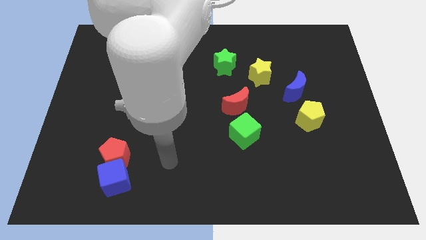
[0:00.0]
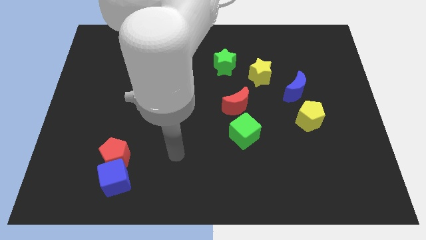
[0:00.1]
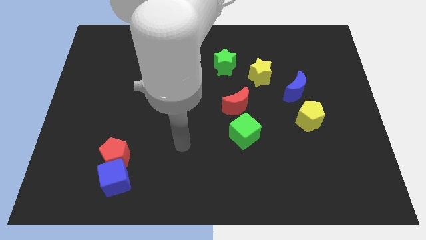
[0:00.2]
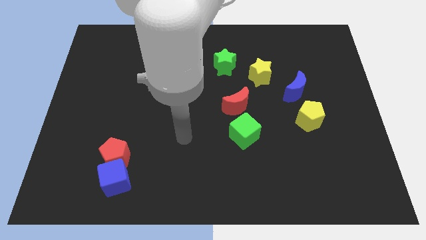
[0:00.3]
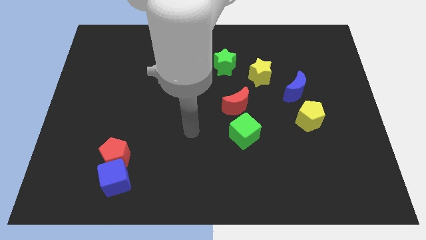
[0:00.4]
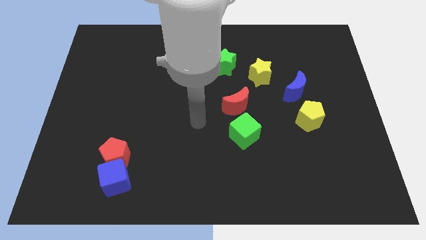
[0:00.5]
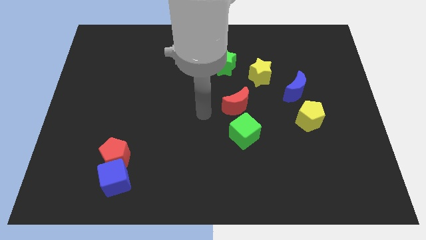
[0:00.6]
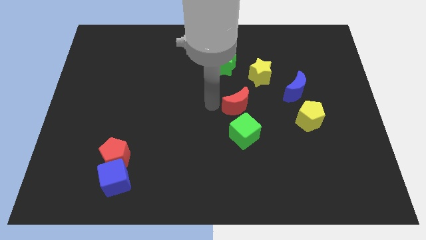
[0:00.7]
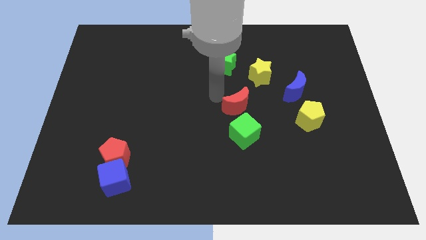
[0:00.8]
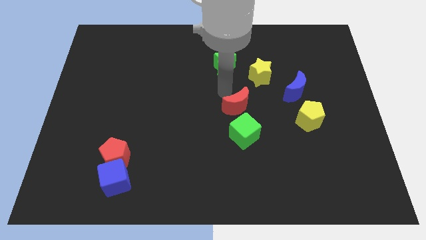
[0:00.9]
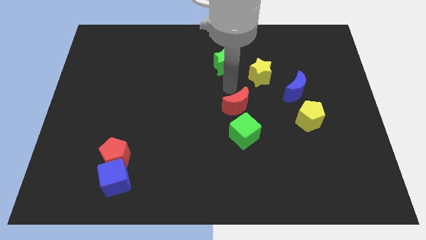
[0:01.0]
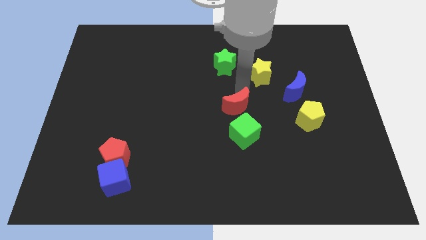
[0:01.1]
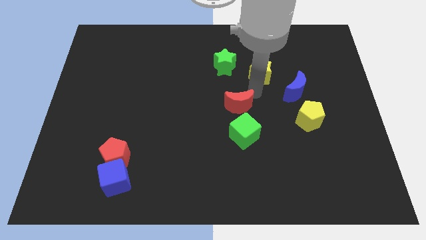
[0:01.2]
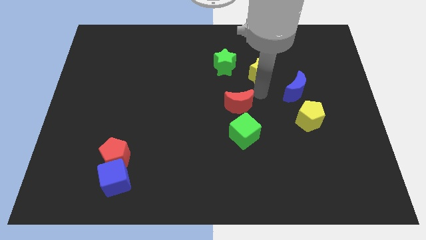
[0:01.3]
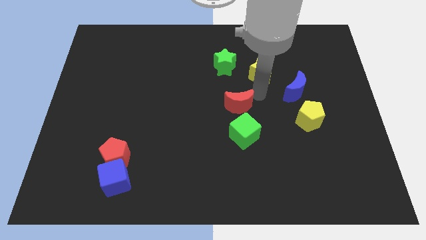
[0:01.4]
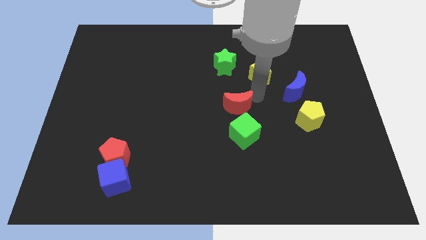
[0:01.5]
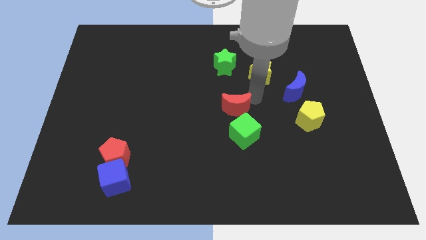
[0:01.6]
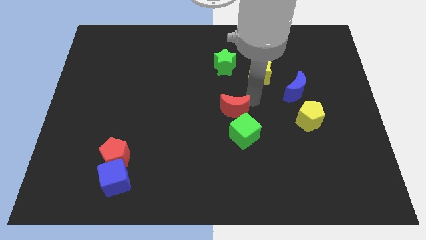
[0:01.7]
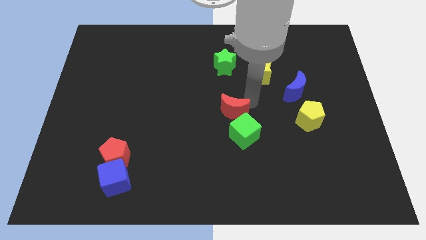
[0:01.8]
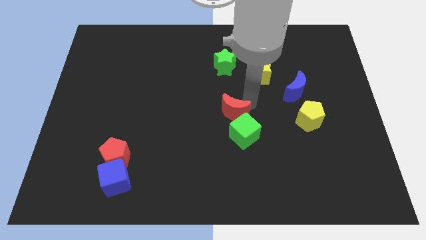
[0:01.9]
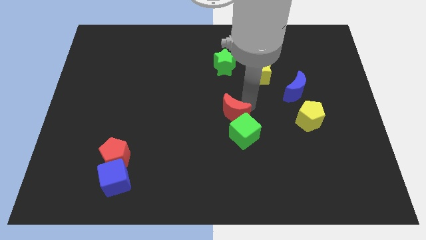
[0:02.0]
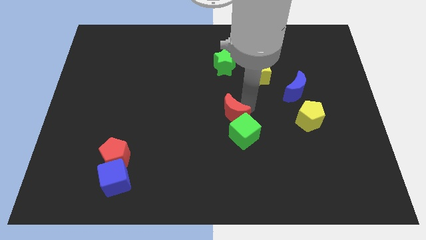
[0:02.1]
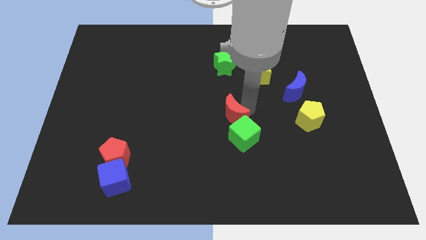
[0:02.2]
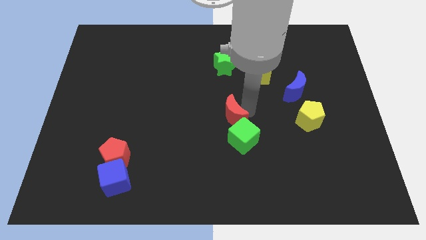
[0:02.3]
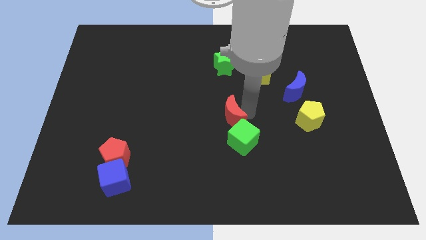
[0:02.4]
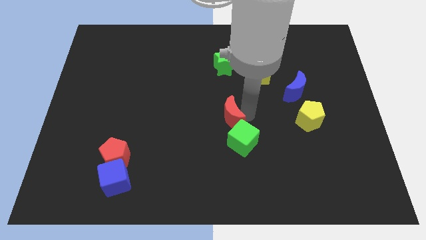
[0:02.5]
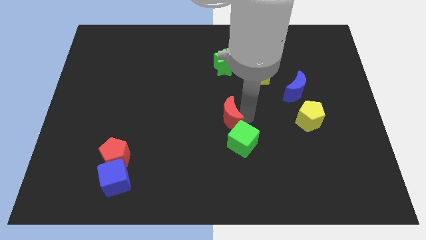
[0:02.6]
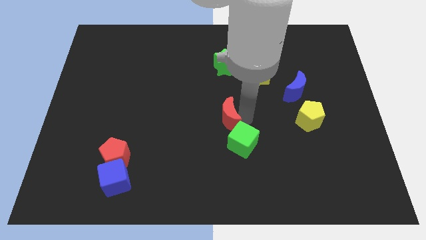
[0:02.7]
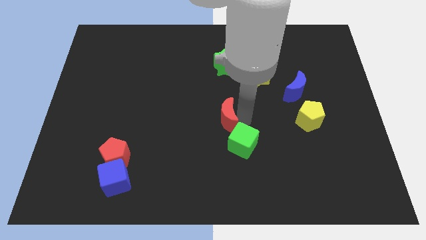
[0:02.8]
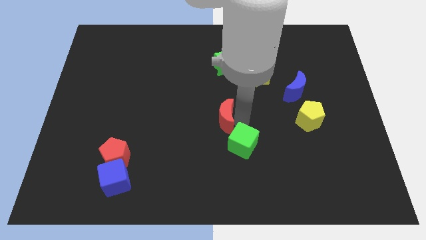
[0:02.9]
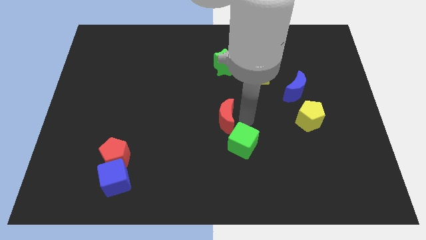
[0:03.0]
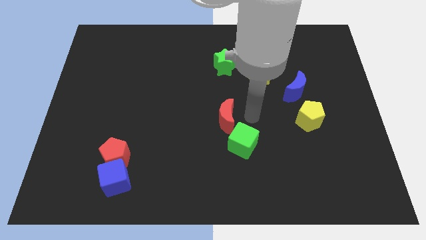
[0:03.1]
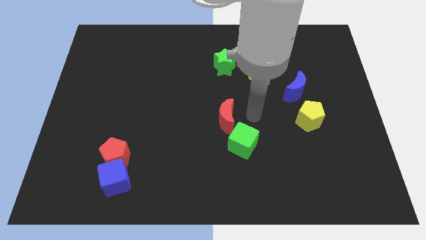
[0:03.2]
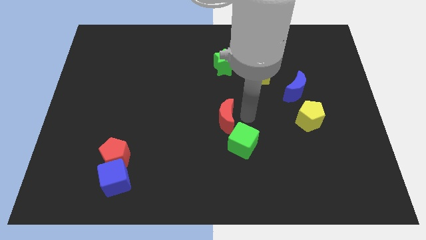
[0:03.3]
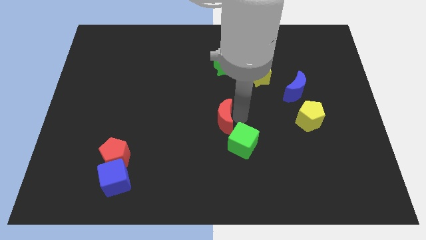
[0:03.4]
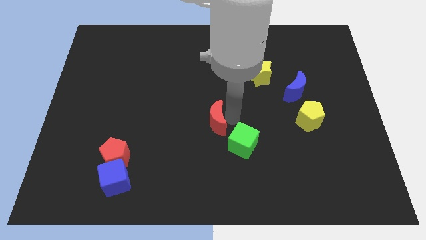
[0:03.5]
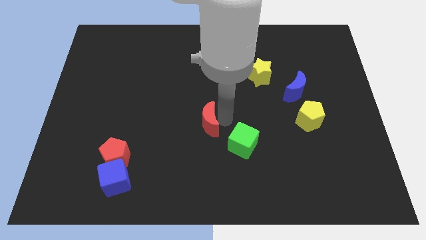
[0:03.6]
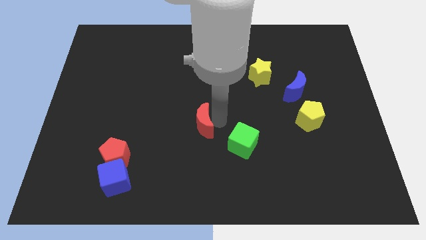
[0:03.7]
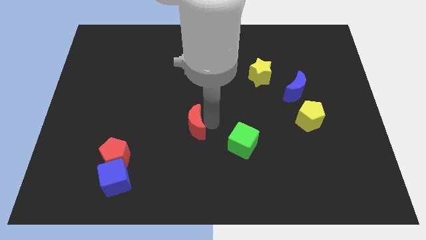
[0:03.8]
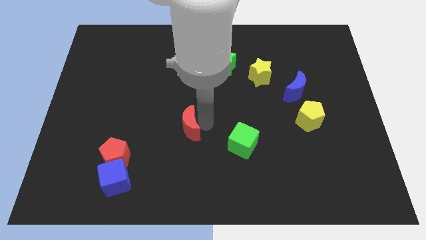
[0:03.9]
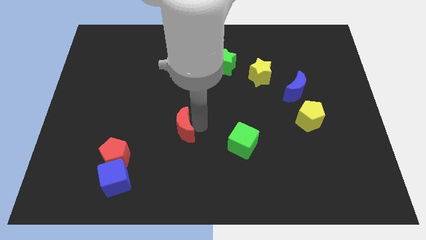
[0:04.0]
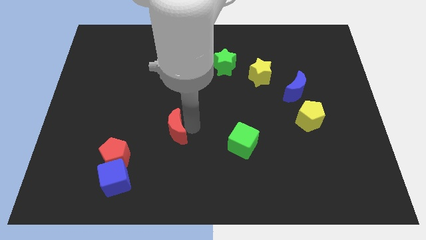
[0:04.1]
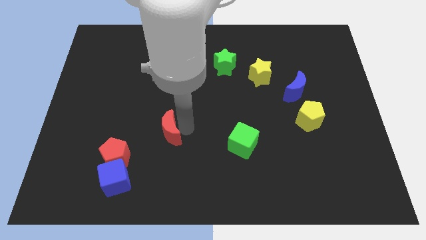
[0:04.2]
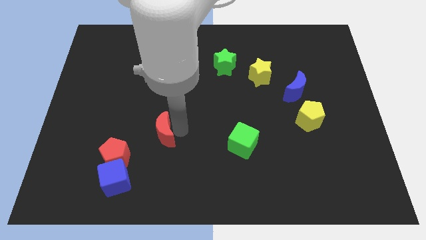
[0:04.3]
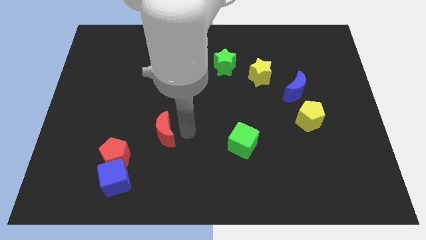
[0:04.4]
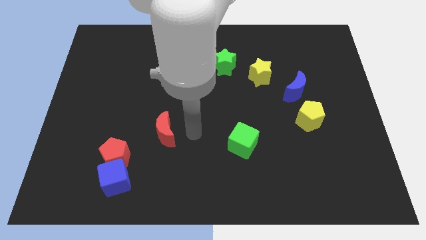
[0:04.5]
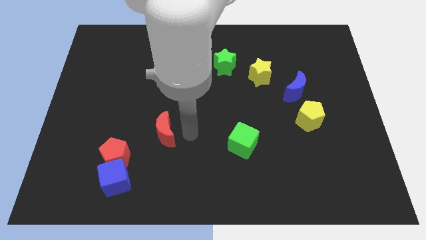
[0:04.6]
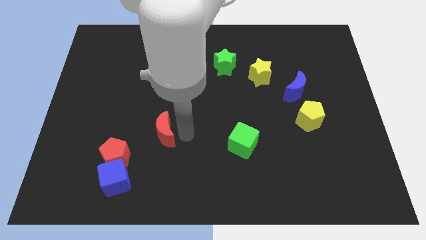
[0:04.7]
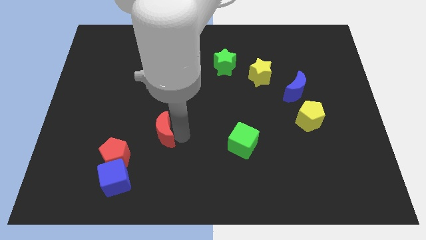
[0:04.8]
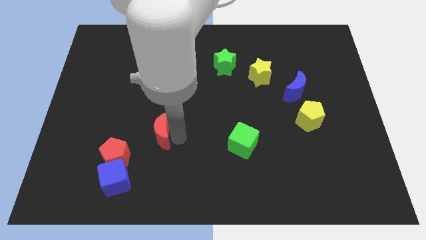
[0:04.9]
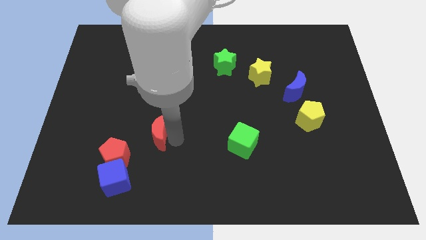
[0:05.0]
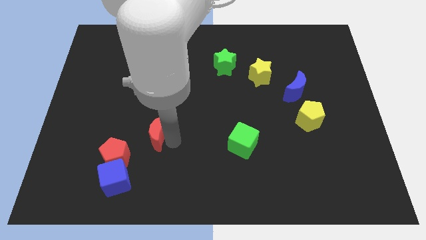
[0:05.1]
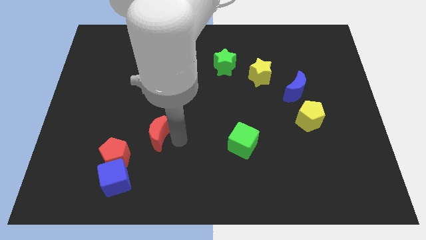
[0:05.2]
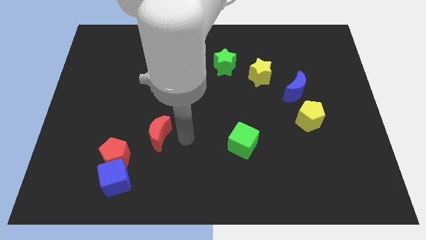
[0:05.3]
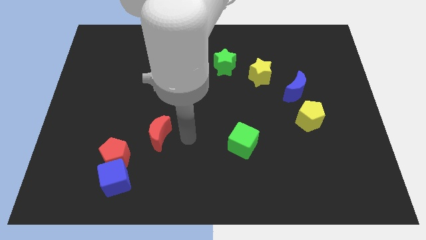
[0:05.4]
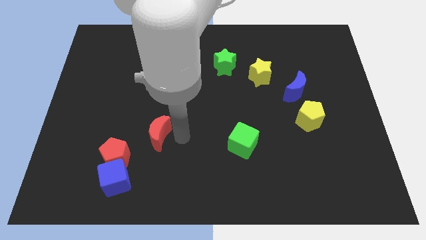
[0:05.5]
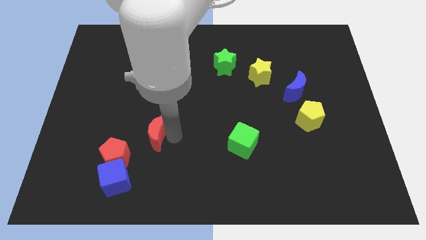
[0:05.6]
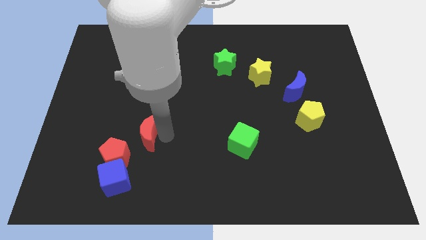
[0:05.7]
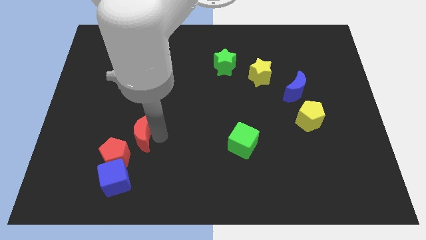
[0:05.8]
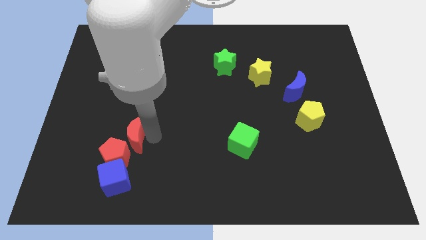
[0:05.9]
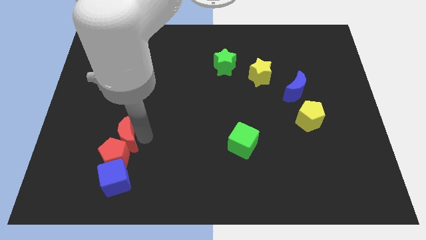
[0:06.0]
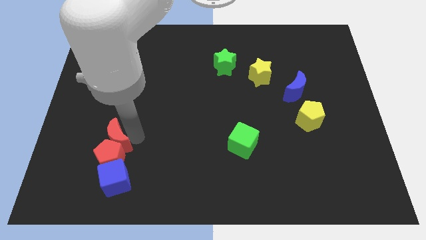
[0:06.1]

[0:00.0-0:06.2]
slide the red moon diagonally up and to the left of the red pentagon
